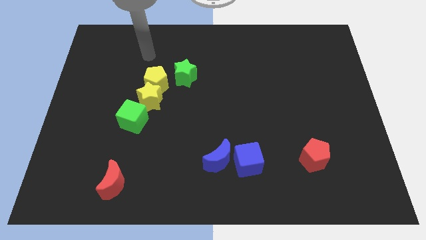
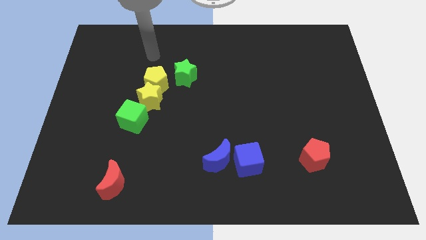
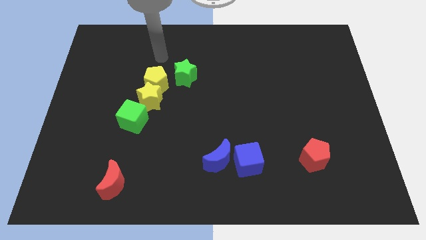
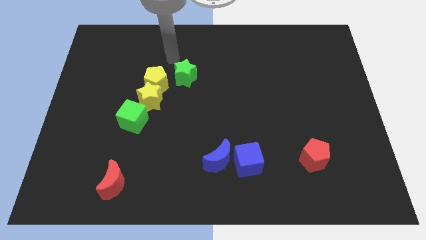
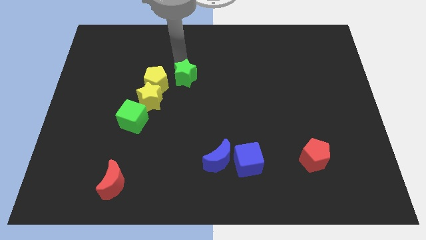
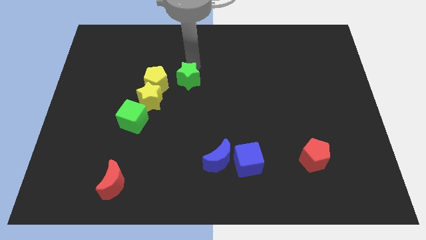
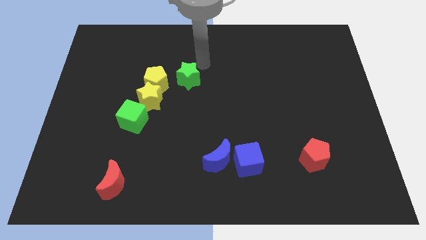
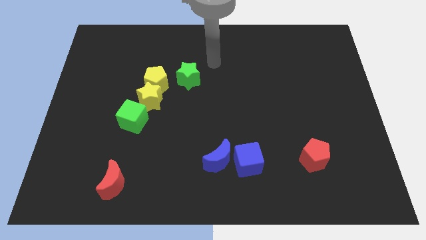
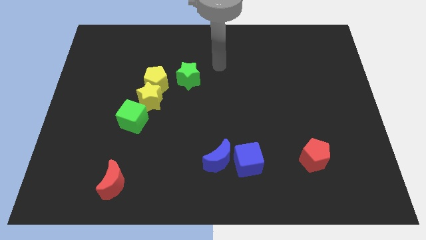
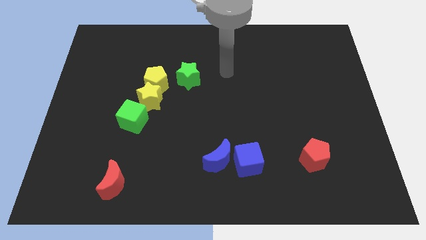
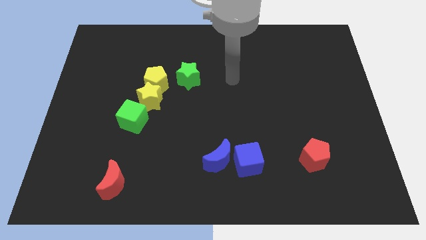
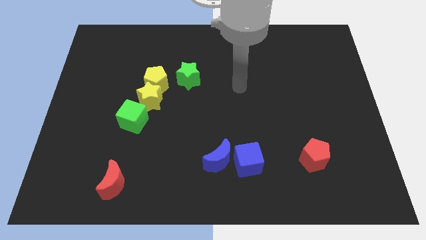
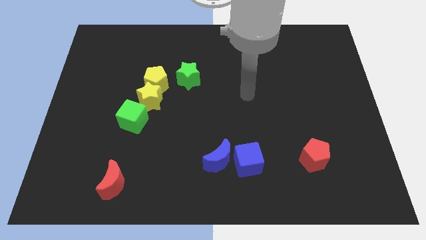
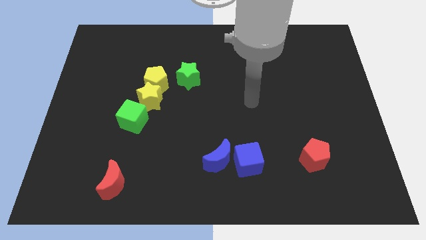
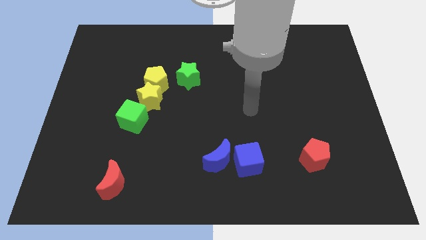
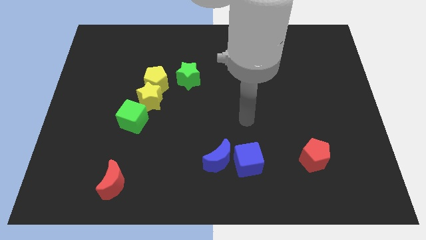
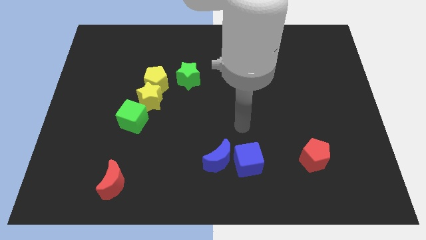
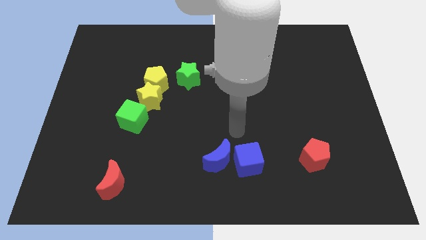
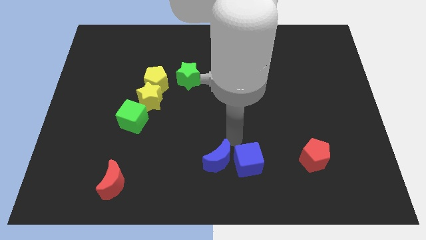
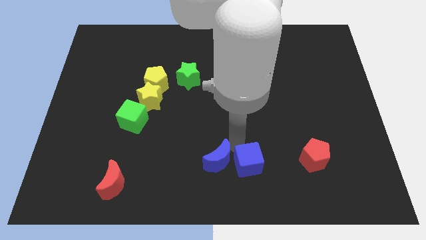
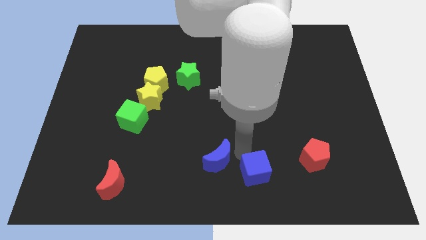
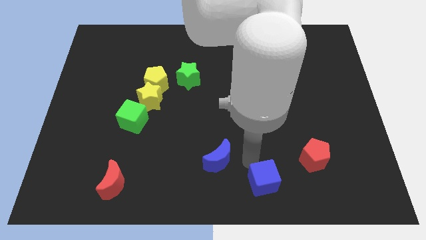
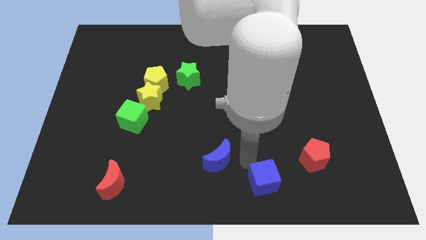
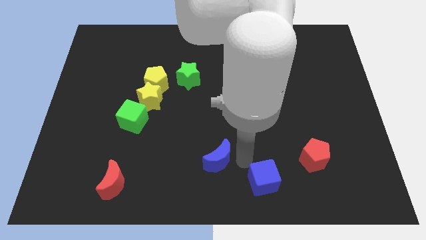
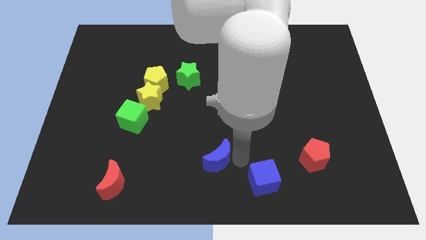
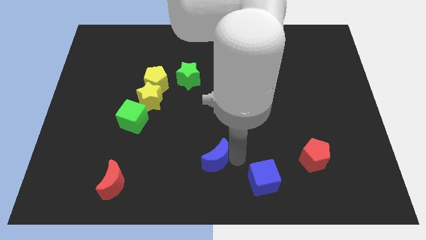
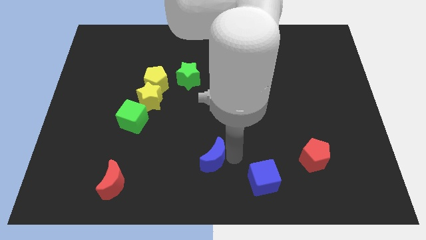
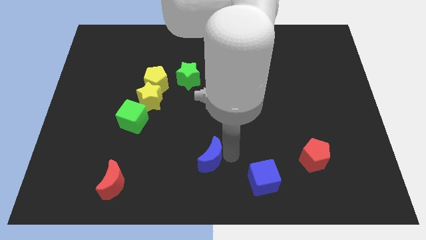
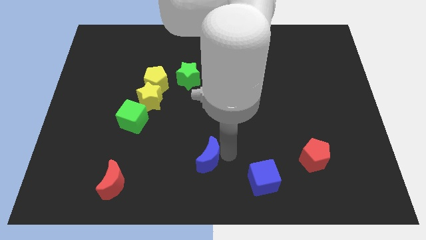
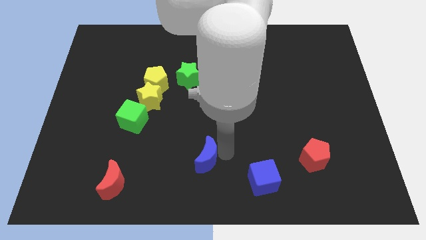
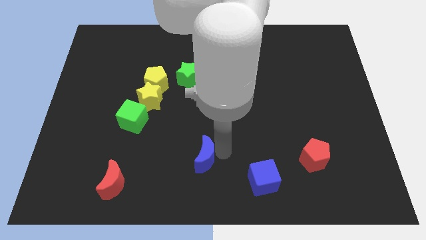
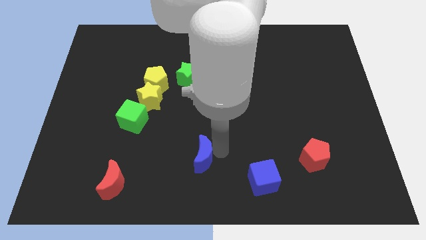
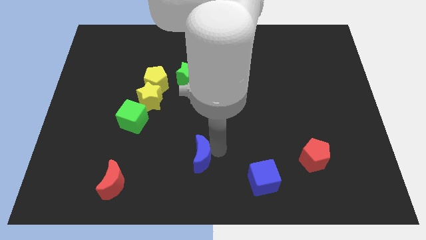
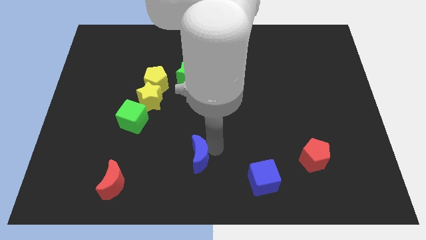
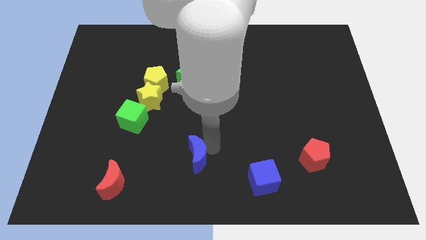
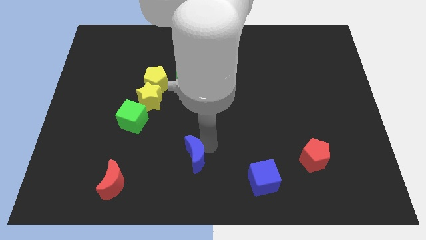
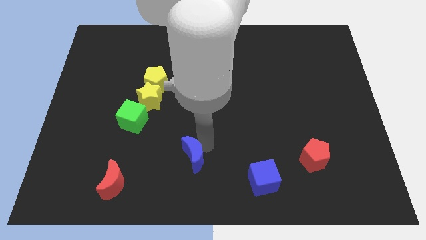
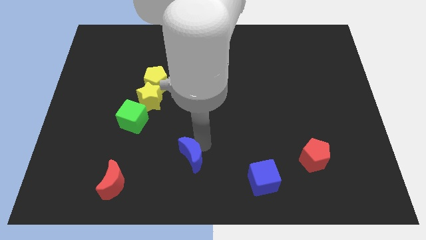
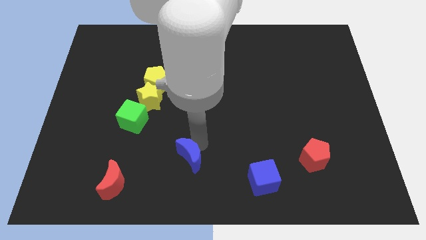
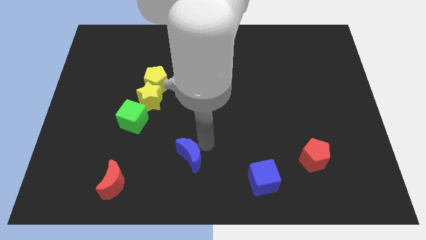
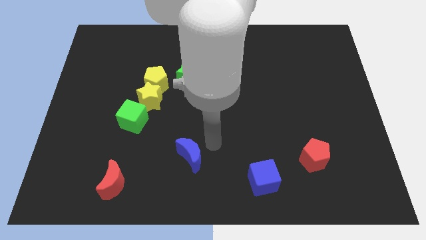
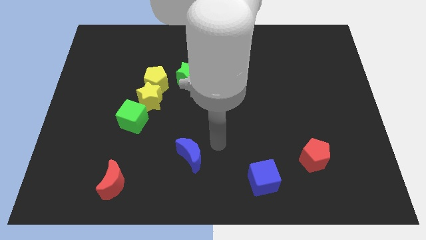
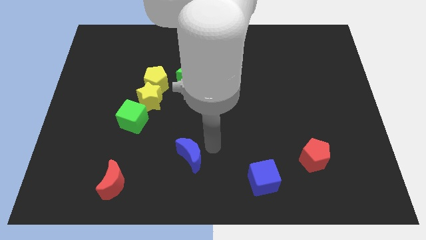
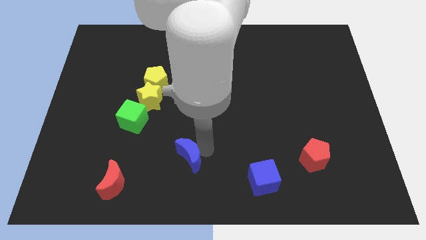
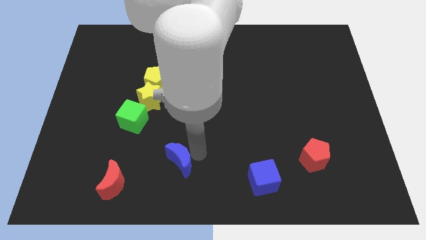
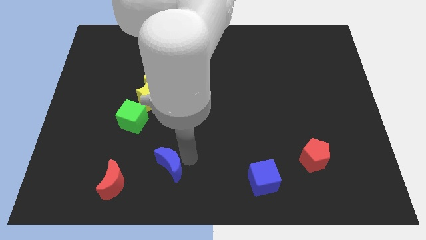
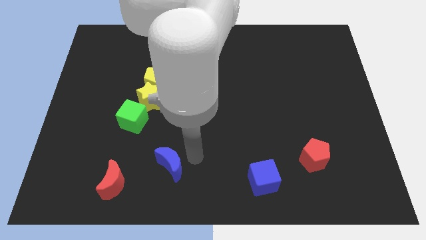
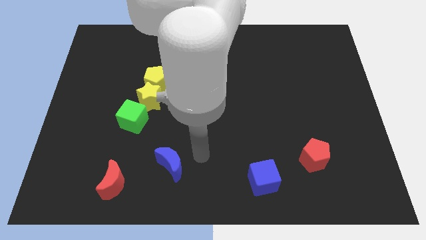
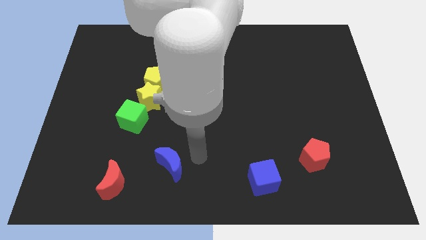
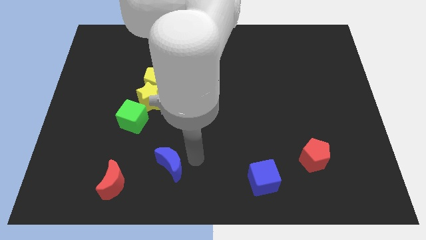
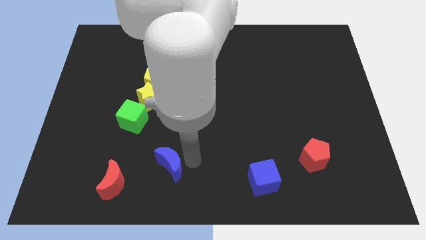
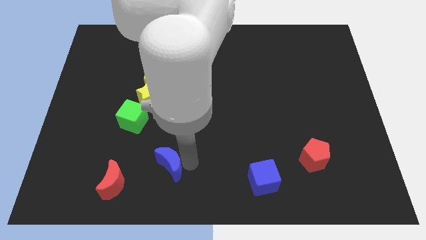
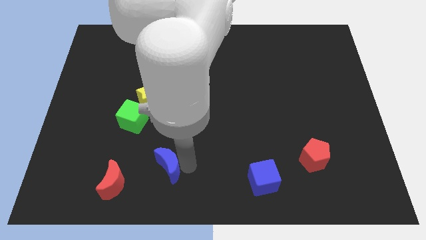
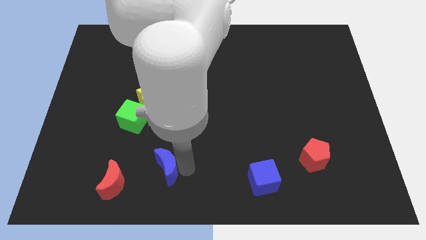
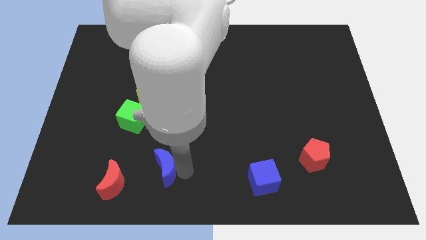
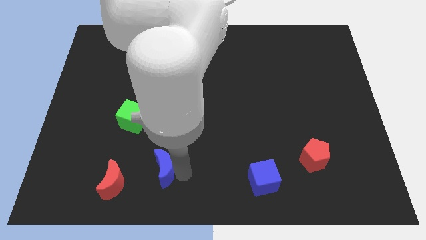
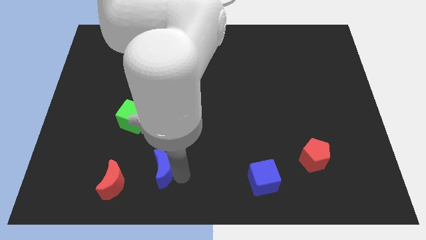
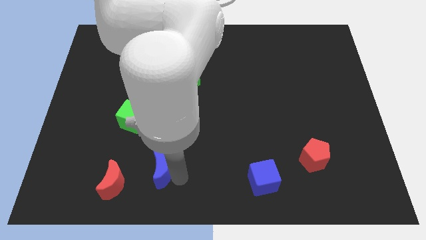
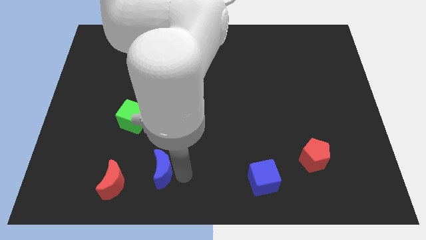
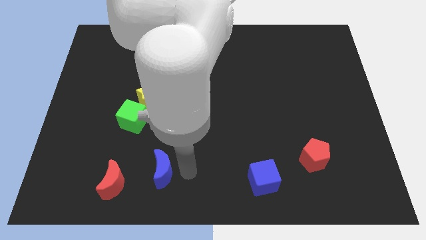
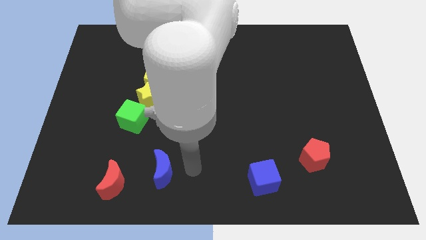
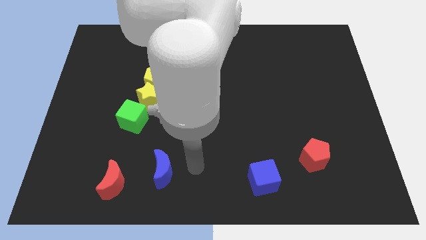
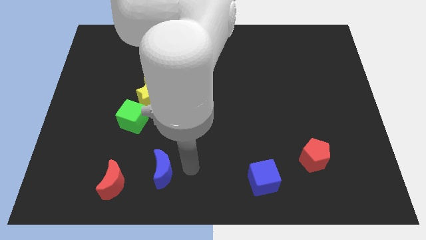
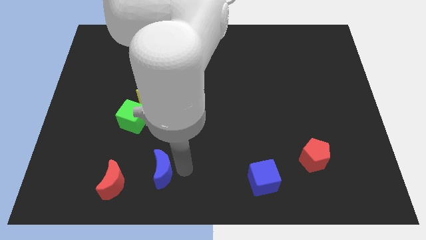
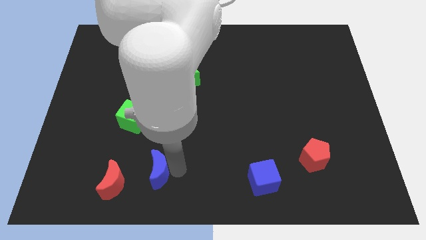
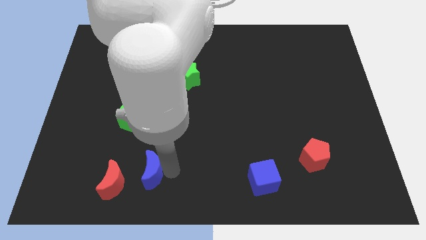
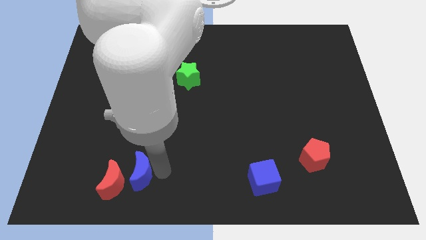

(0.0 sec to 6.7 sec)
put the blue moon next to the red moon

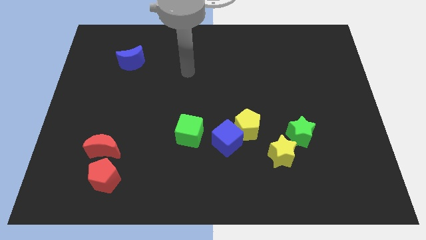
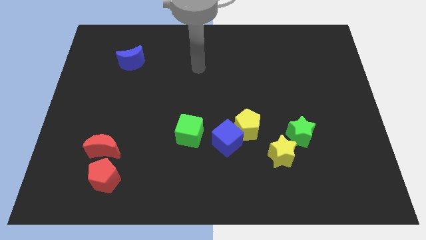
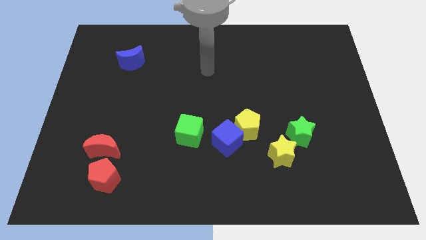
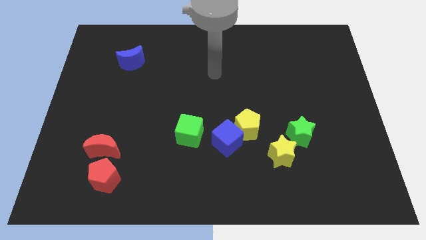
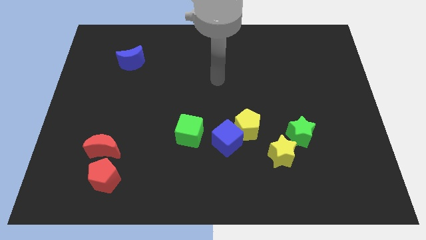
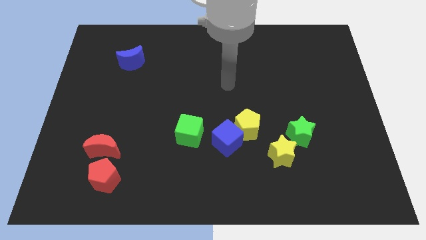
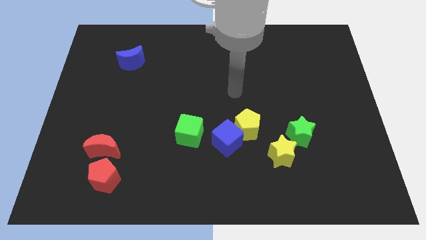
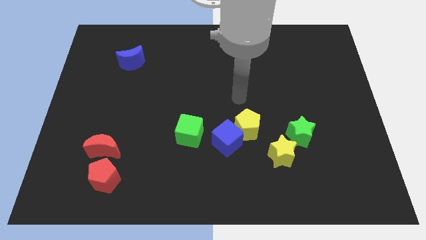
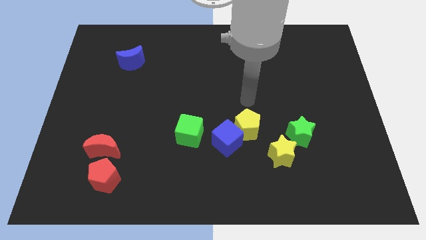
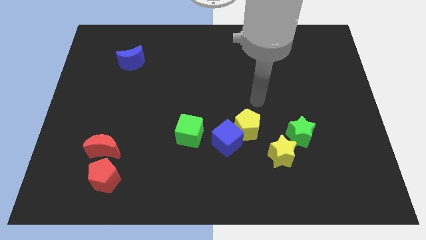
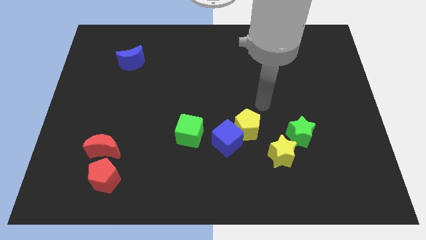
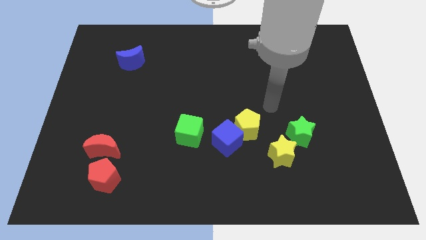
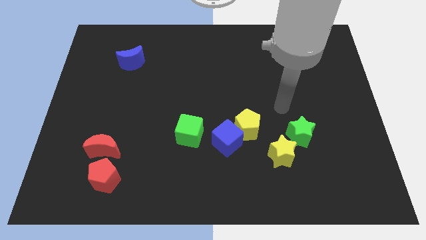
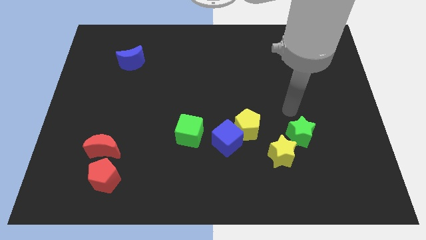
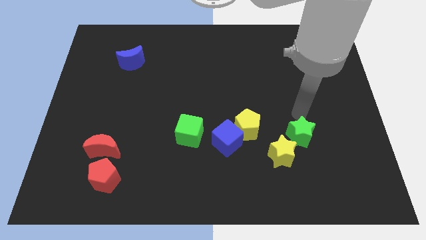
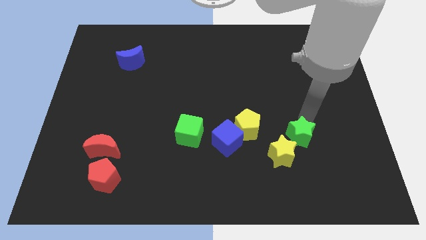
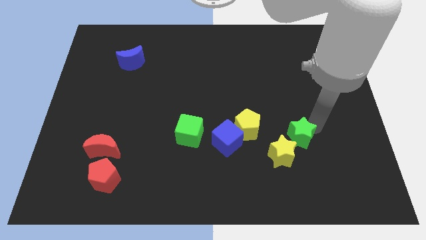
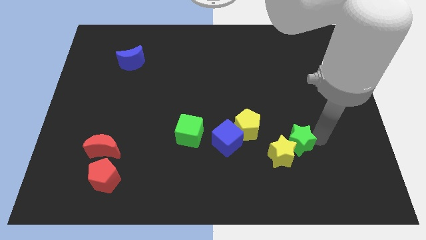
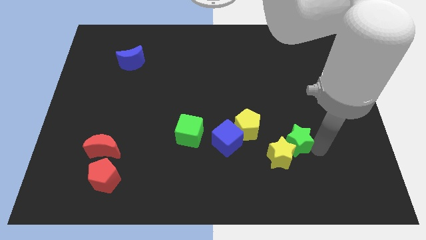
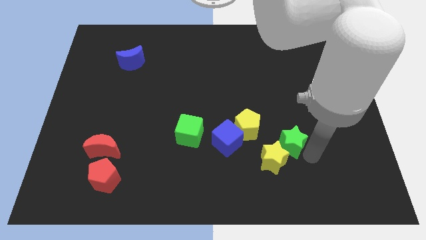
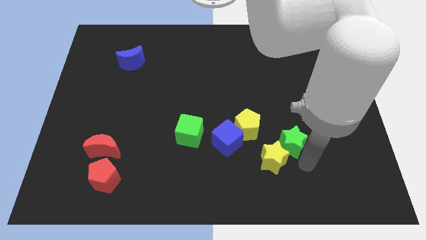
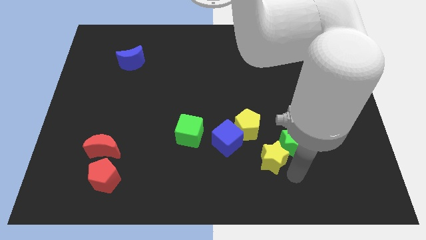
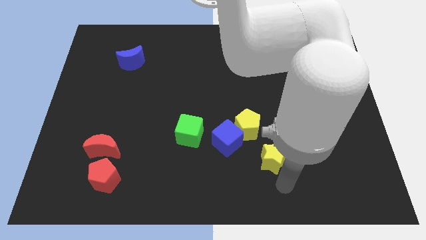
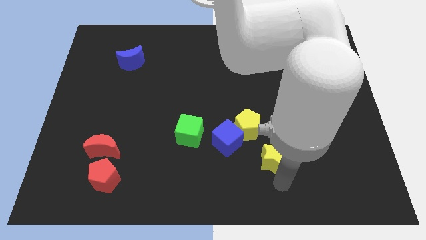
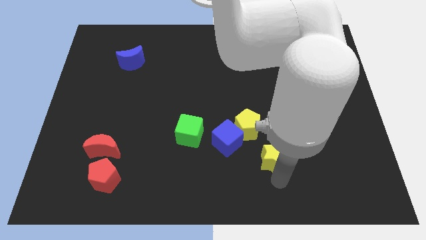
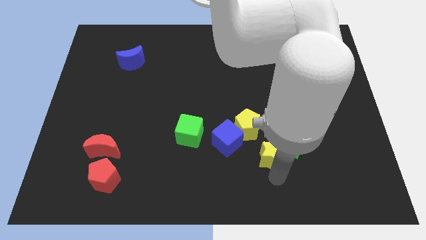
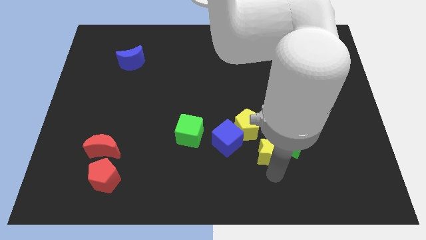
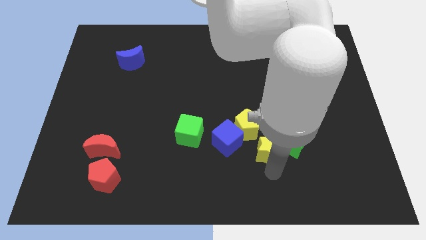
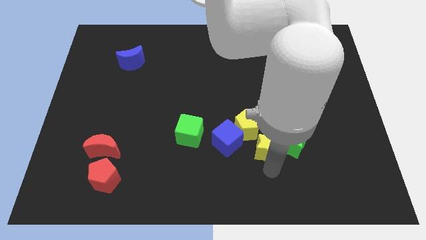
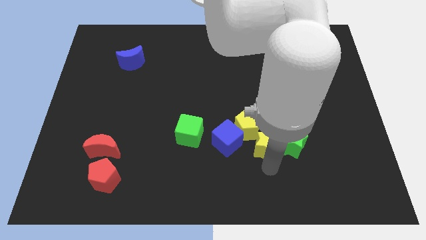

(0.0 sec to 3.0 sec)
slide the yellow star towards the yellow pentagon
